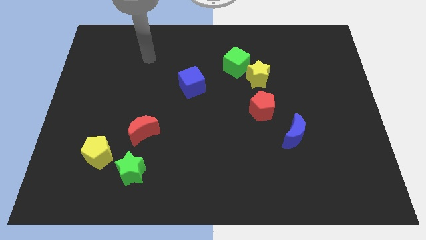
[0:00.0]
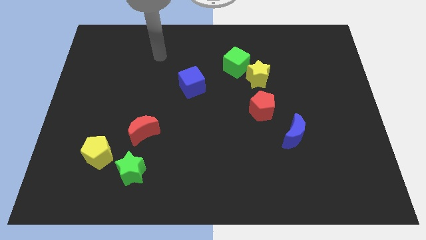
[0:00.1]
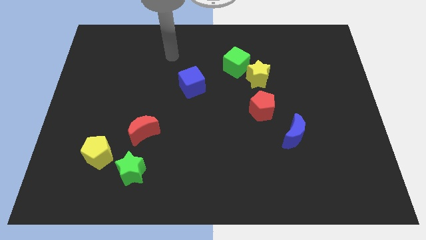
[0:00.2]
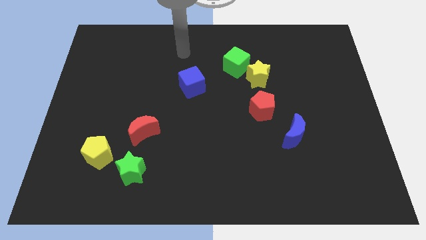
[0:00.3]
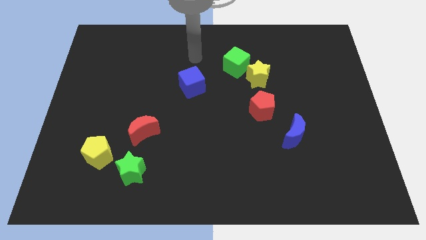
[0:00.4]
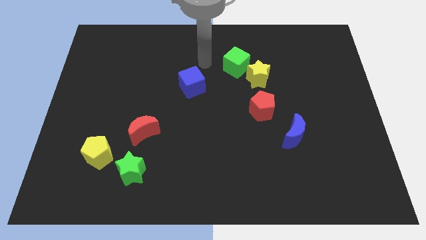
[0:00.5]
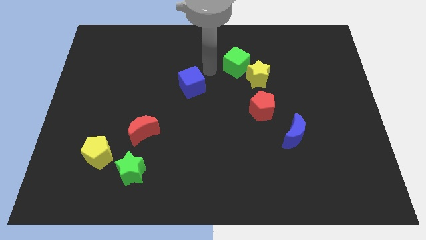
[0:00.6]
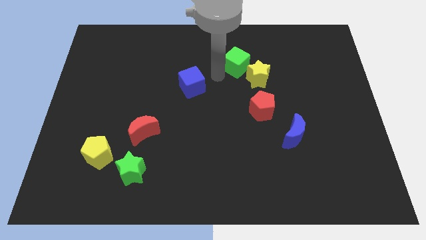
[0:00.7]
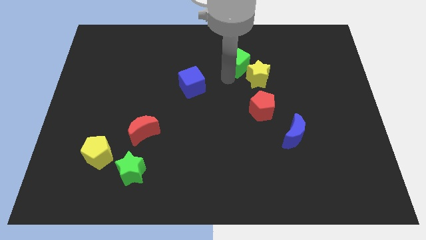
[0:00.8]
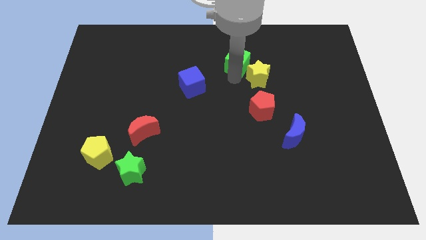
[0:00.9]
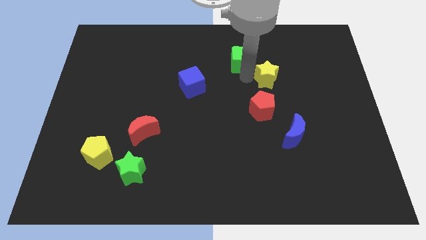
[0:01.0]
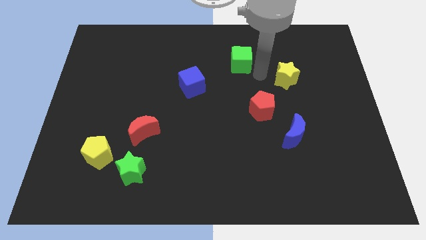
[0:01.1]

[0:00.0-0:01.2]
move the green cube away from the yellow star

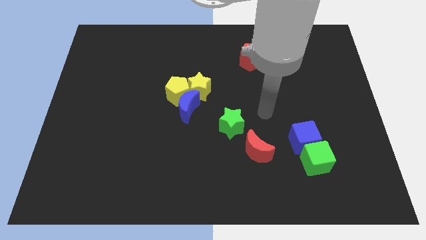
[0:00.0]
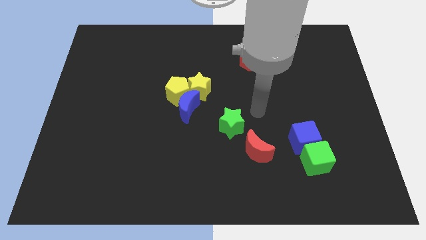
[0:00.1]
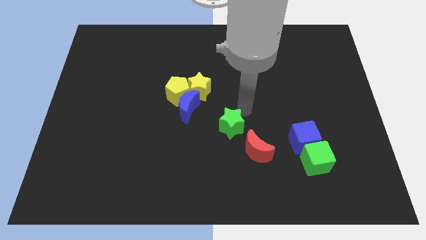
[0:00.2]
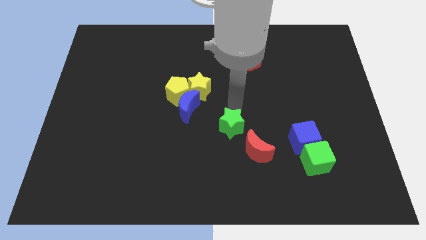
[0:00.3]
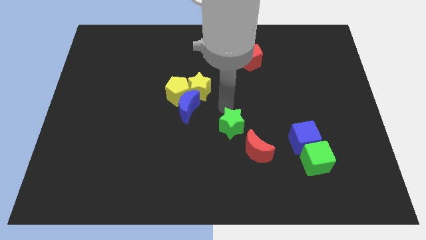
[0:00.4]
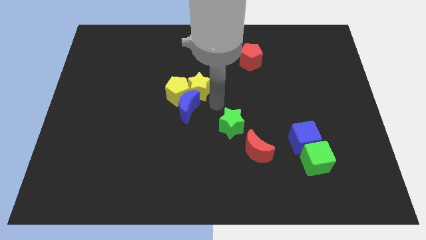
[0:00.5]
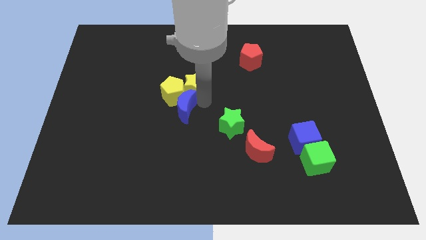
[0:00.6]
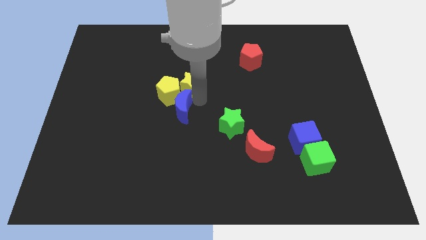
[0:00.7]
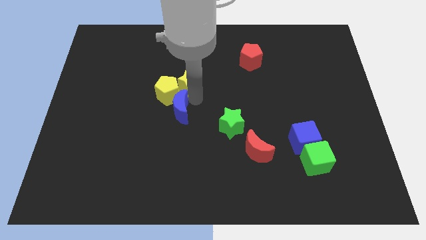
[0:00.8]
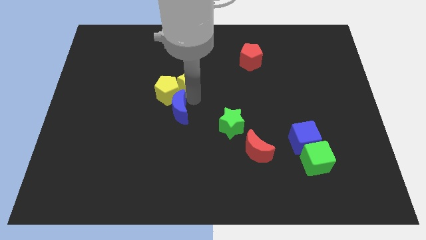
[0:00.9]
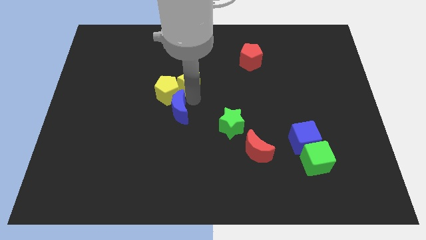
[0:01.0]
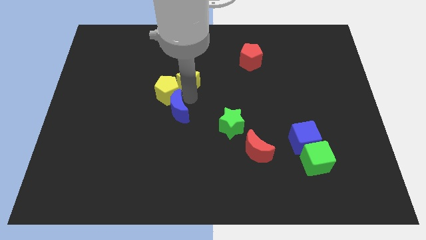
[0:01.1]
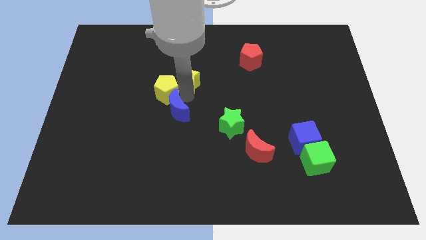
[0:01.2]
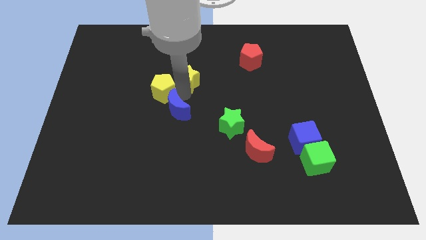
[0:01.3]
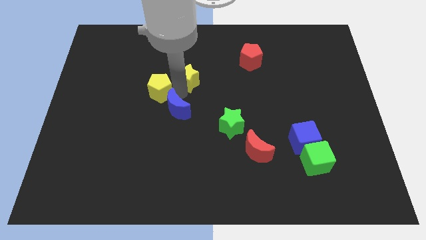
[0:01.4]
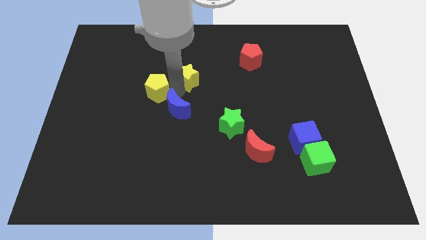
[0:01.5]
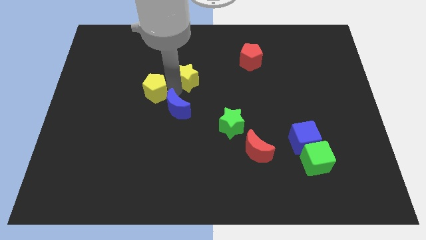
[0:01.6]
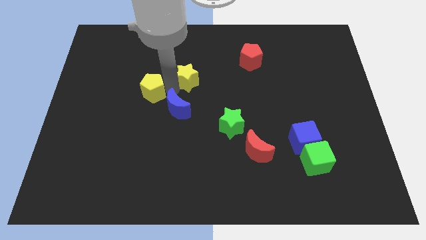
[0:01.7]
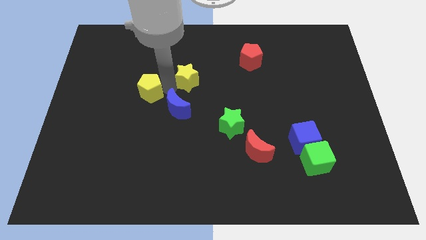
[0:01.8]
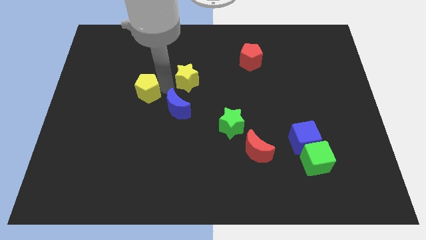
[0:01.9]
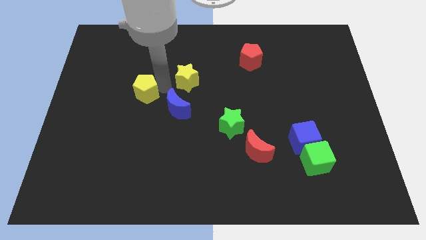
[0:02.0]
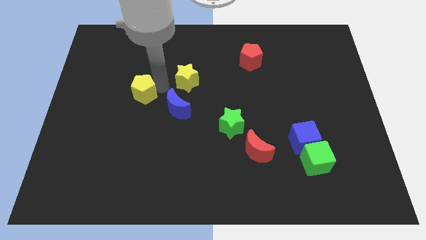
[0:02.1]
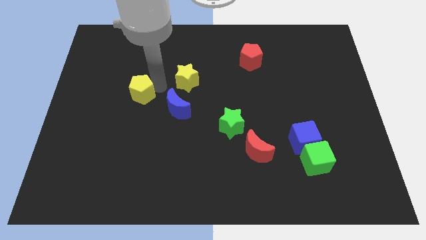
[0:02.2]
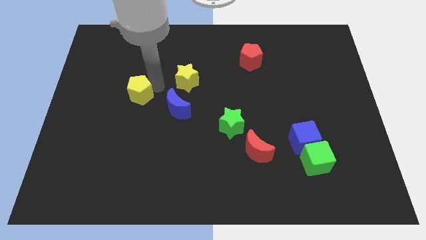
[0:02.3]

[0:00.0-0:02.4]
pull the yellow pentagon apart from the blue moon and yellow star

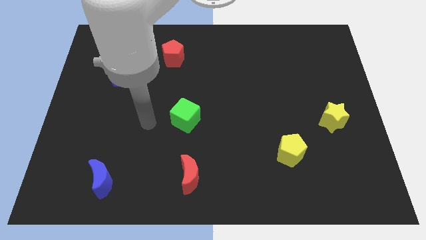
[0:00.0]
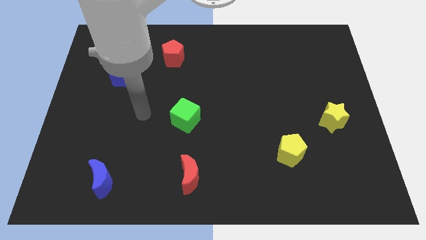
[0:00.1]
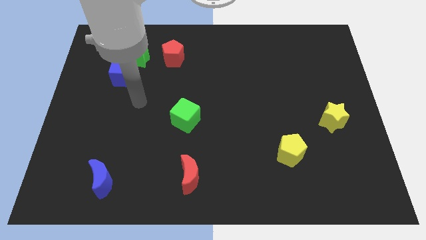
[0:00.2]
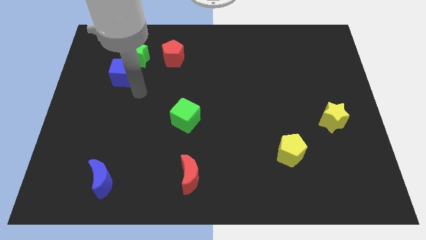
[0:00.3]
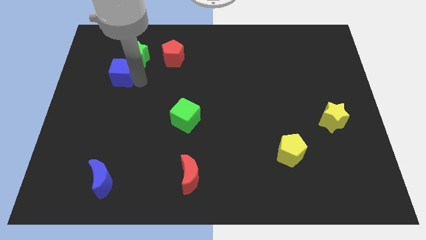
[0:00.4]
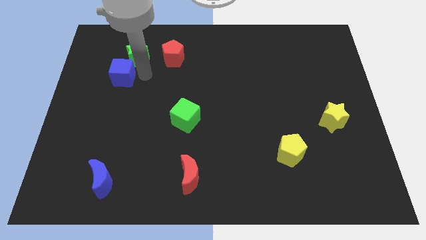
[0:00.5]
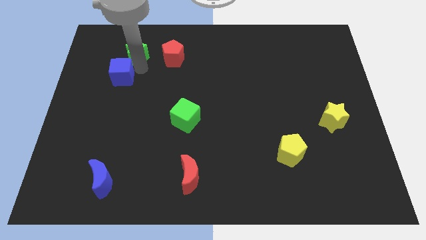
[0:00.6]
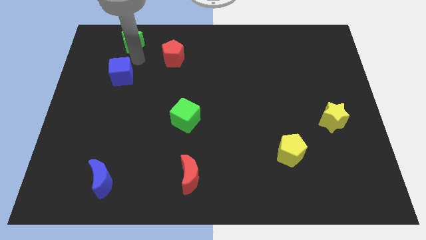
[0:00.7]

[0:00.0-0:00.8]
move the blue cube away from the green star

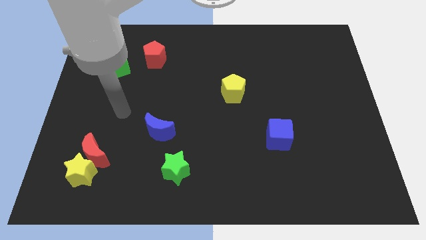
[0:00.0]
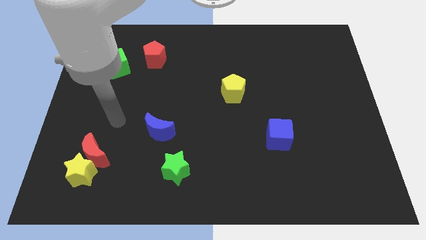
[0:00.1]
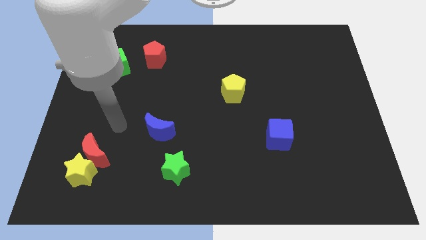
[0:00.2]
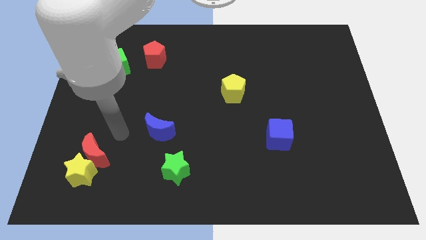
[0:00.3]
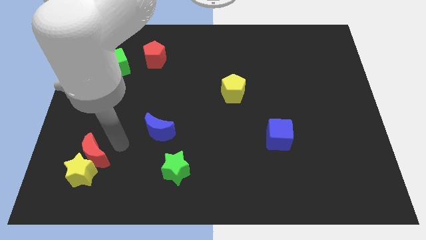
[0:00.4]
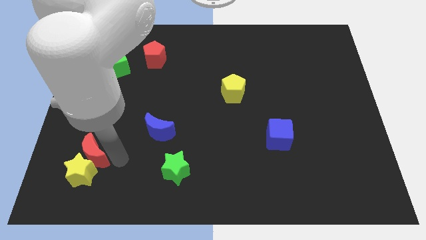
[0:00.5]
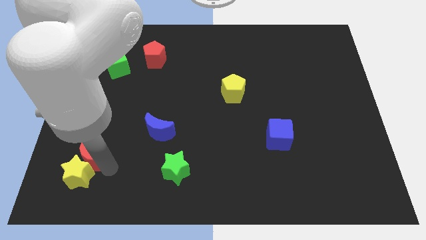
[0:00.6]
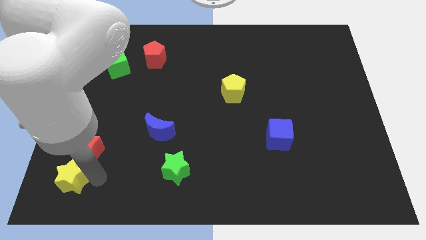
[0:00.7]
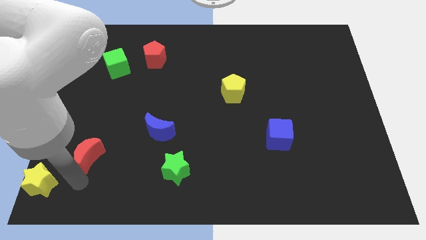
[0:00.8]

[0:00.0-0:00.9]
pull the red moon apart from the yellow star

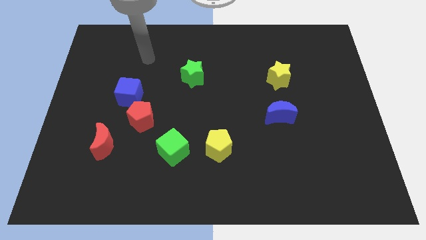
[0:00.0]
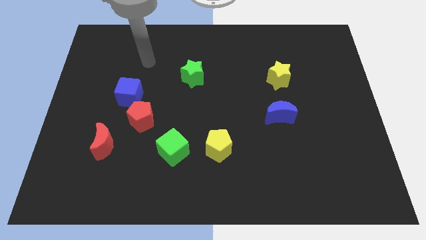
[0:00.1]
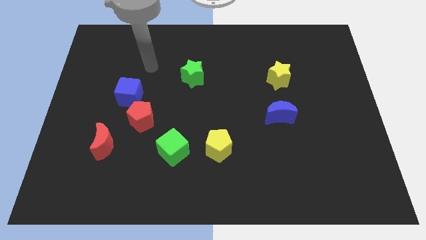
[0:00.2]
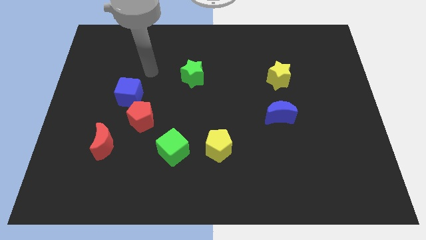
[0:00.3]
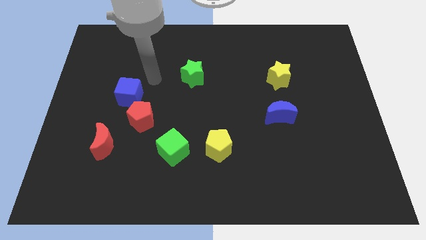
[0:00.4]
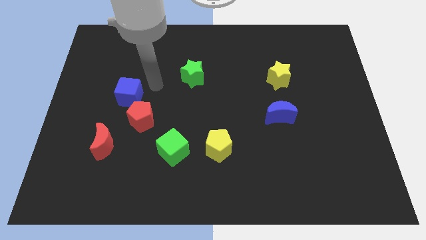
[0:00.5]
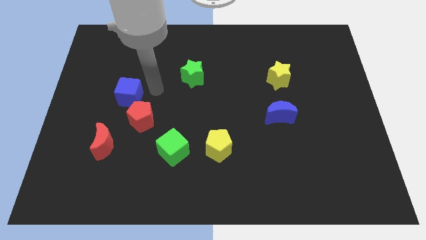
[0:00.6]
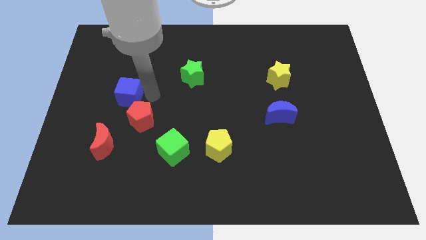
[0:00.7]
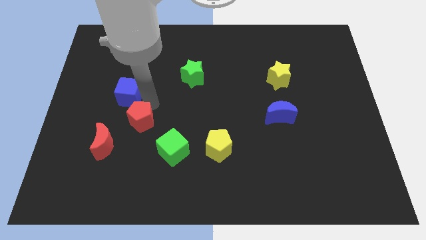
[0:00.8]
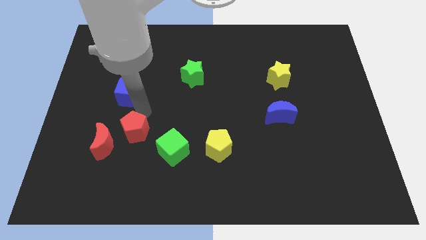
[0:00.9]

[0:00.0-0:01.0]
separate the blue cube from the red pentagon

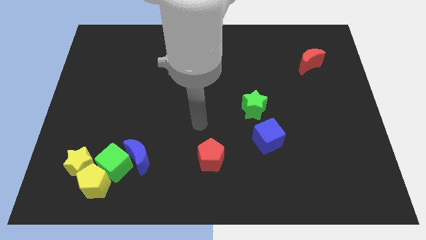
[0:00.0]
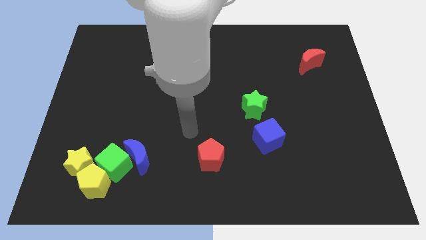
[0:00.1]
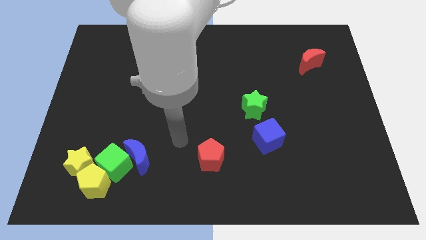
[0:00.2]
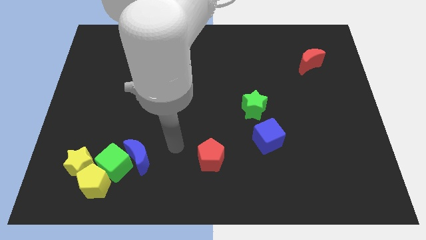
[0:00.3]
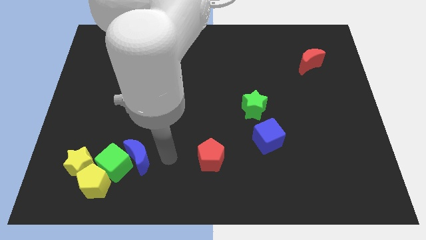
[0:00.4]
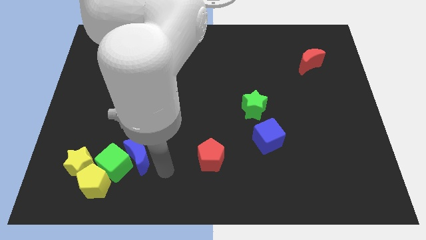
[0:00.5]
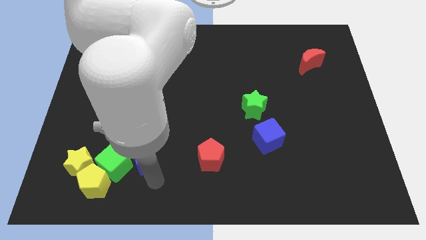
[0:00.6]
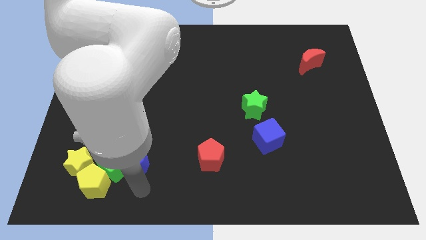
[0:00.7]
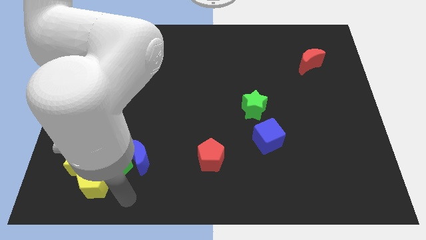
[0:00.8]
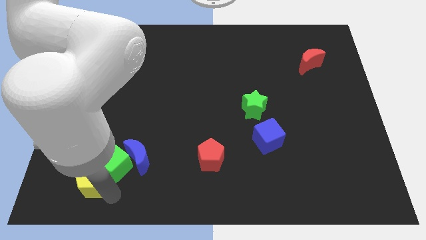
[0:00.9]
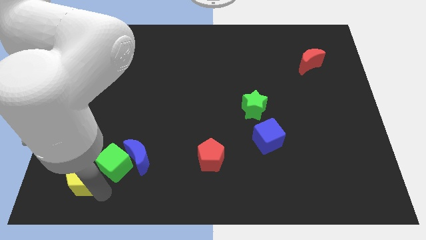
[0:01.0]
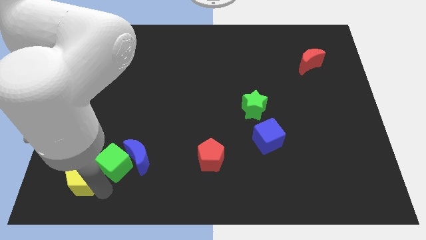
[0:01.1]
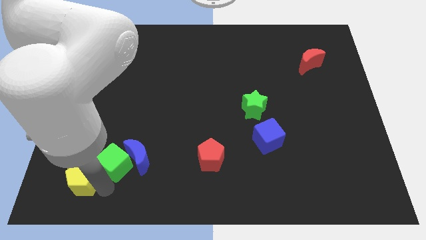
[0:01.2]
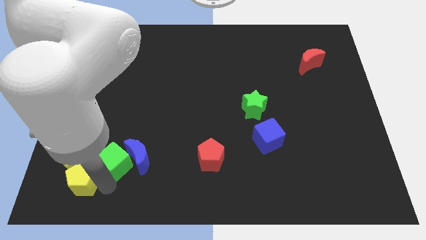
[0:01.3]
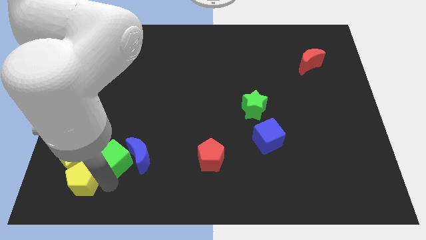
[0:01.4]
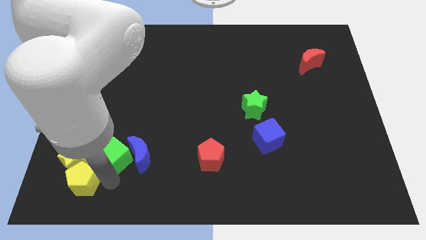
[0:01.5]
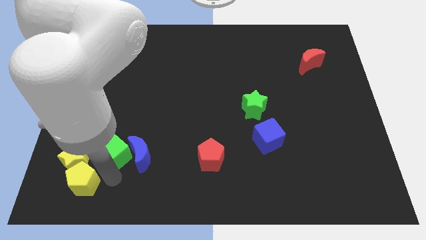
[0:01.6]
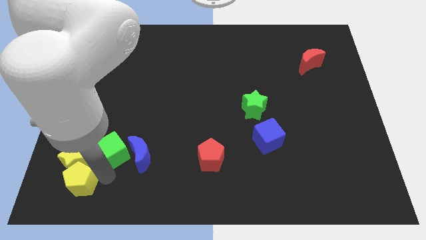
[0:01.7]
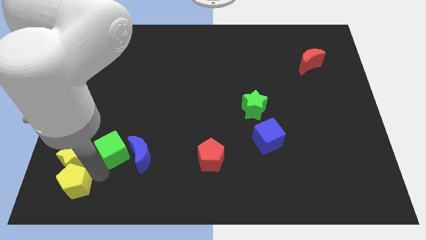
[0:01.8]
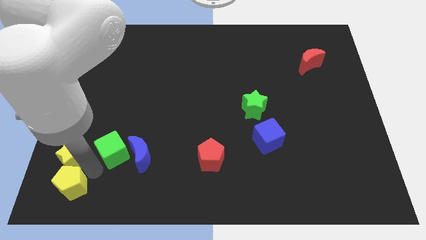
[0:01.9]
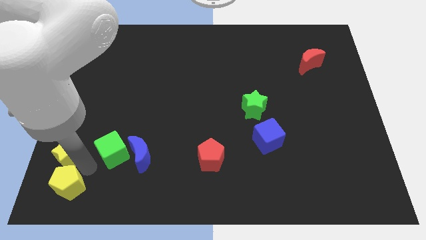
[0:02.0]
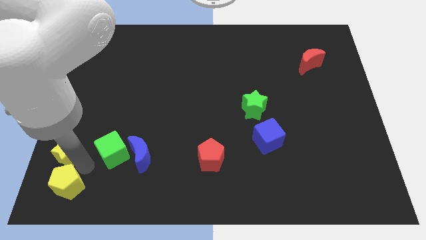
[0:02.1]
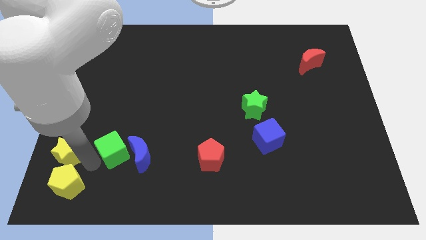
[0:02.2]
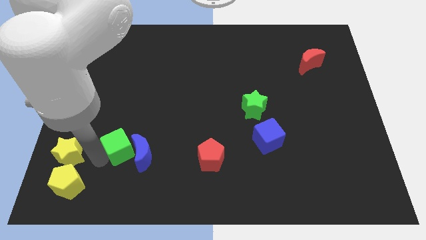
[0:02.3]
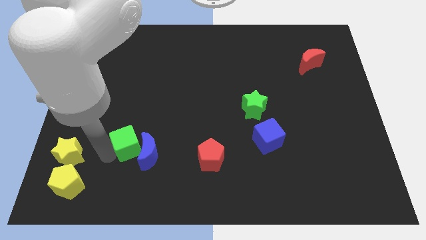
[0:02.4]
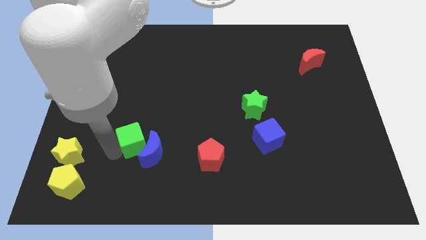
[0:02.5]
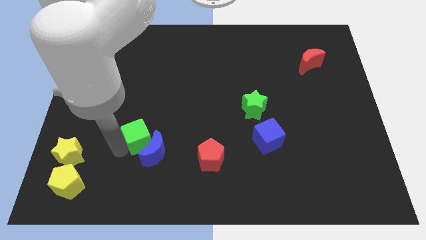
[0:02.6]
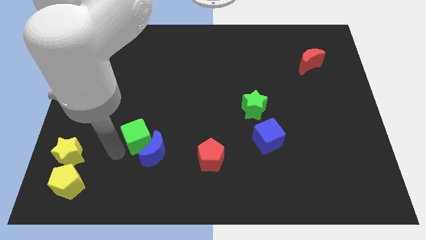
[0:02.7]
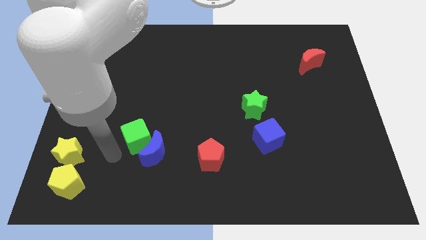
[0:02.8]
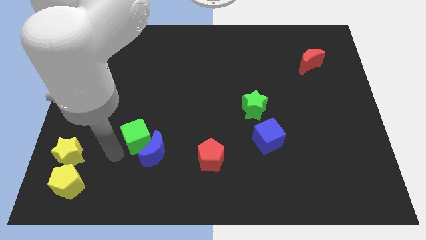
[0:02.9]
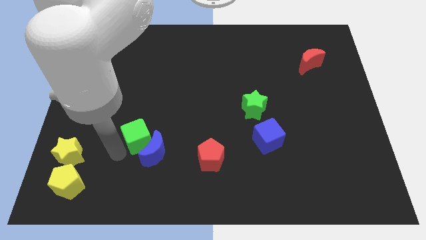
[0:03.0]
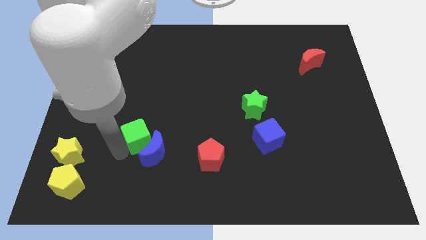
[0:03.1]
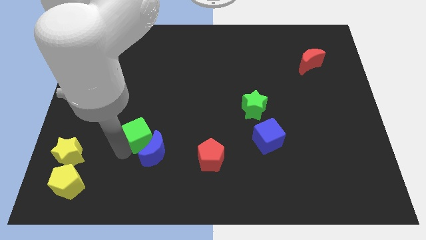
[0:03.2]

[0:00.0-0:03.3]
separate the green cube from the blue moon, yellow pentagon, and yellow star
